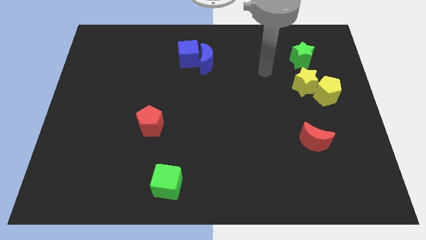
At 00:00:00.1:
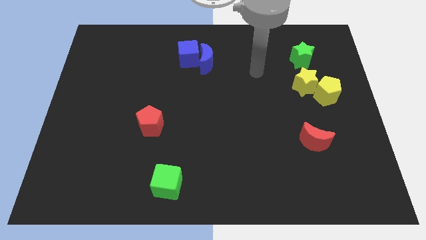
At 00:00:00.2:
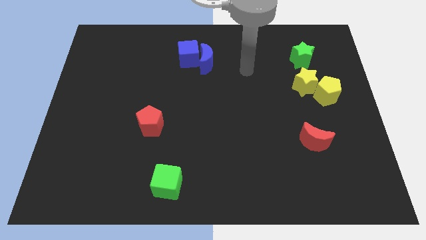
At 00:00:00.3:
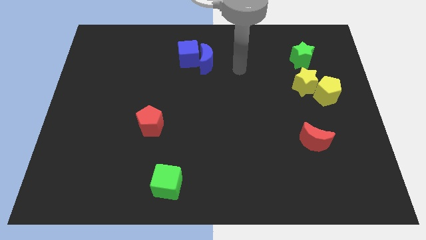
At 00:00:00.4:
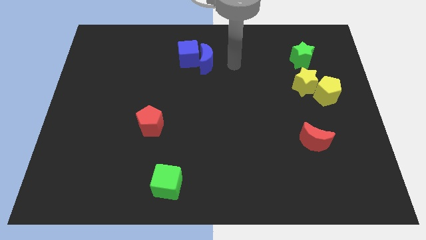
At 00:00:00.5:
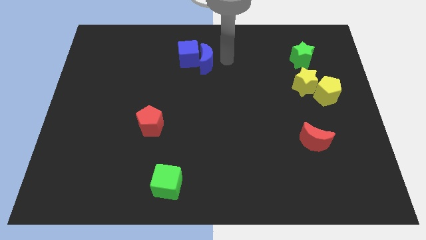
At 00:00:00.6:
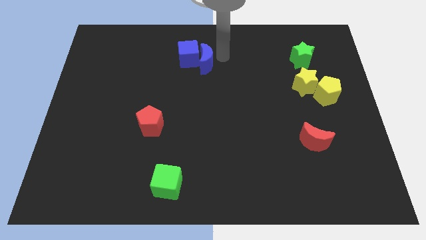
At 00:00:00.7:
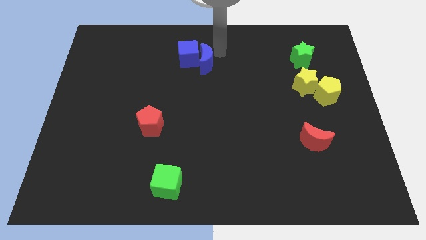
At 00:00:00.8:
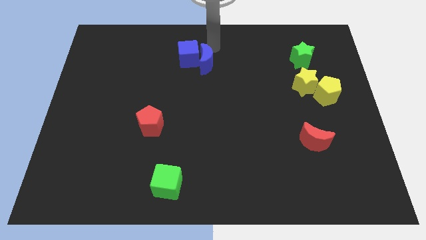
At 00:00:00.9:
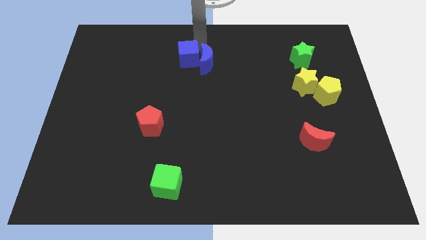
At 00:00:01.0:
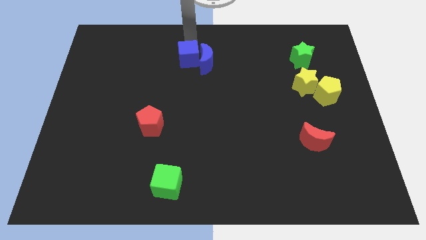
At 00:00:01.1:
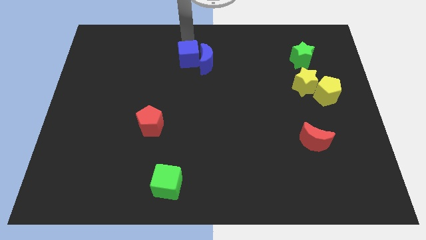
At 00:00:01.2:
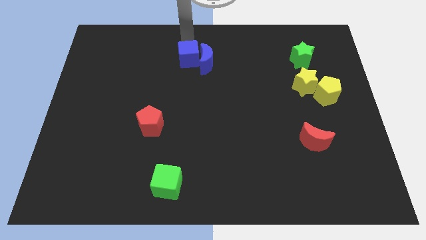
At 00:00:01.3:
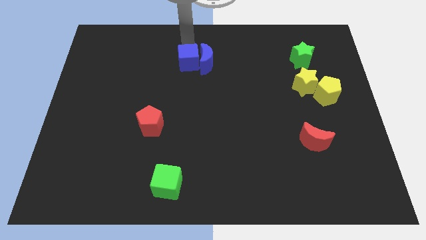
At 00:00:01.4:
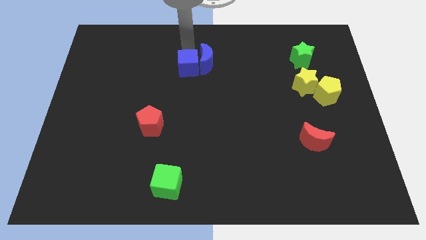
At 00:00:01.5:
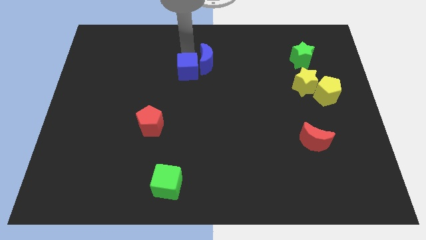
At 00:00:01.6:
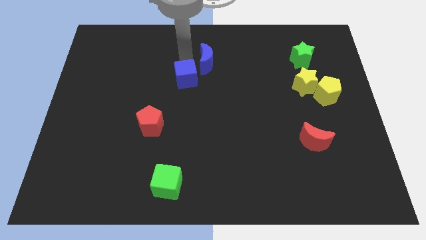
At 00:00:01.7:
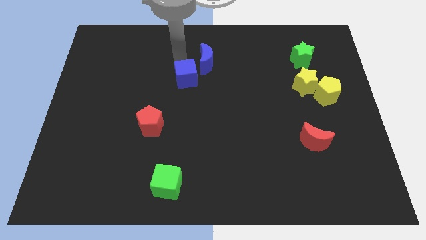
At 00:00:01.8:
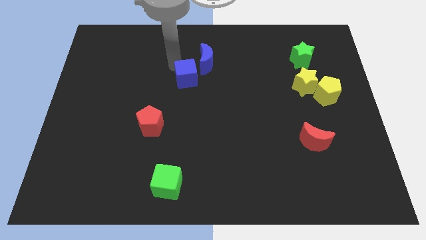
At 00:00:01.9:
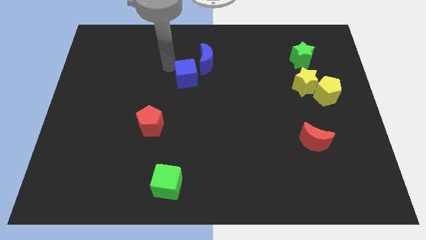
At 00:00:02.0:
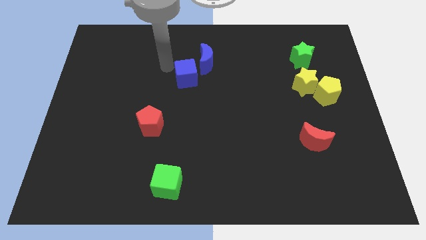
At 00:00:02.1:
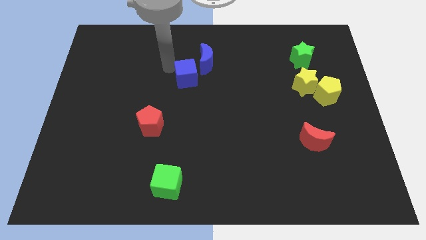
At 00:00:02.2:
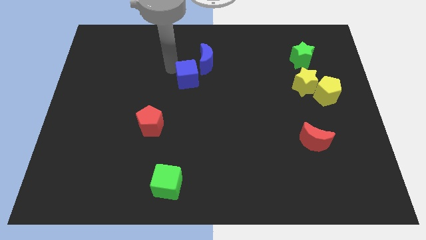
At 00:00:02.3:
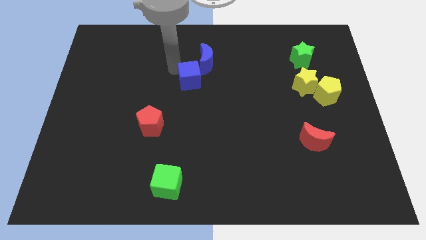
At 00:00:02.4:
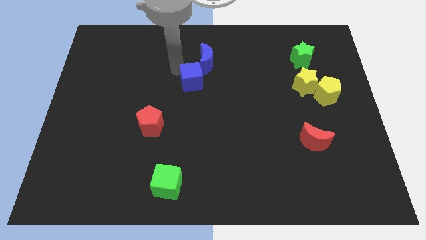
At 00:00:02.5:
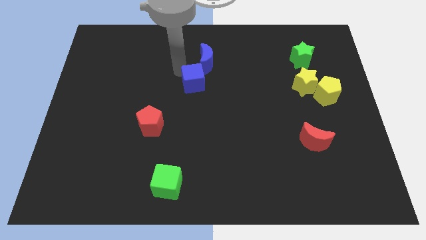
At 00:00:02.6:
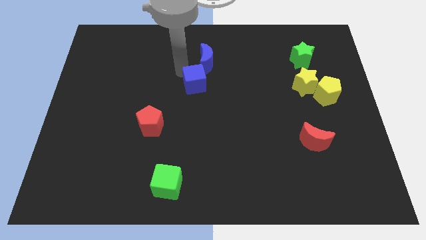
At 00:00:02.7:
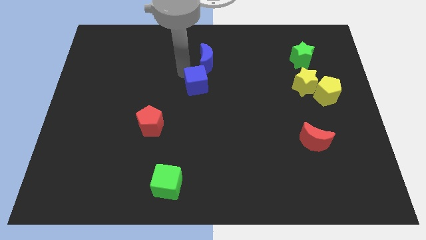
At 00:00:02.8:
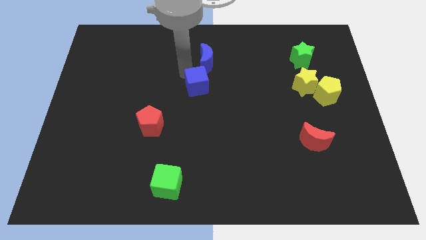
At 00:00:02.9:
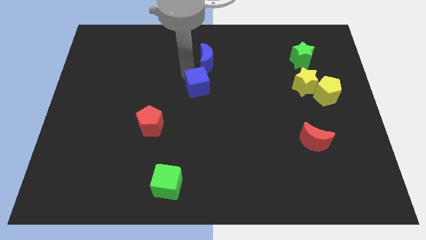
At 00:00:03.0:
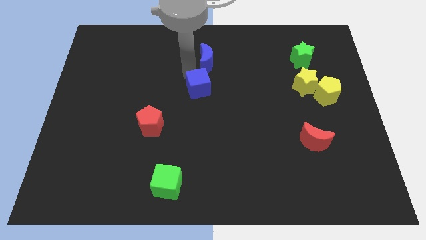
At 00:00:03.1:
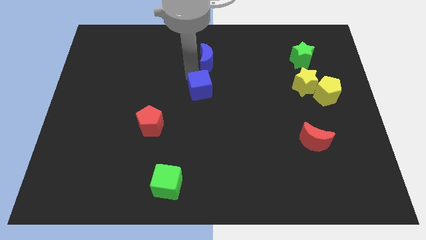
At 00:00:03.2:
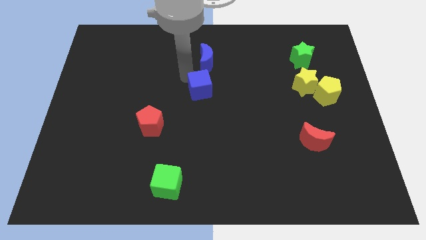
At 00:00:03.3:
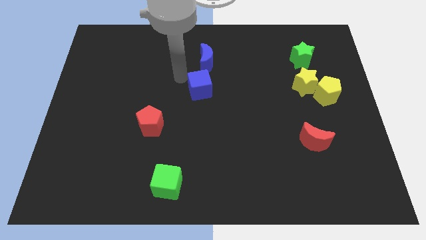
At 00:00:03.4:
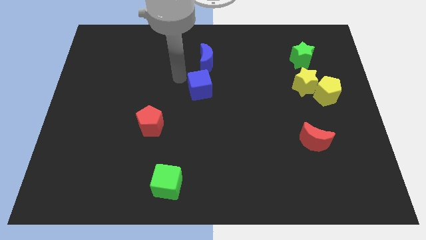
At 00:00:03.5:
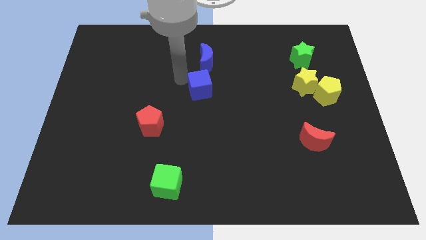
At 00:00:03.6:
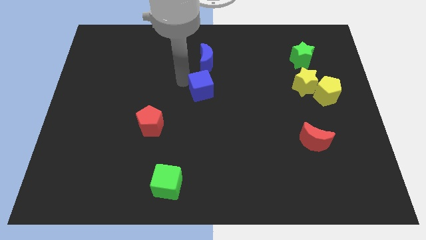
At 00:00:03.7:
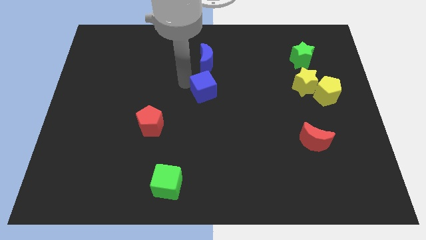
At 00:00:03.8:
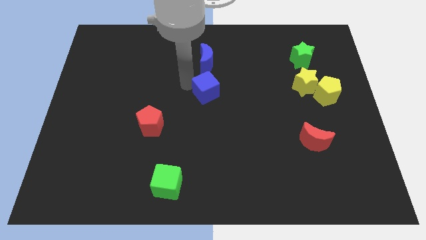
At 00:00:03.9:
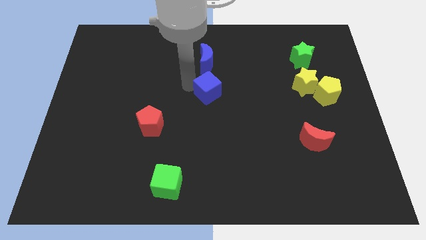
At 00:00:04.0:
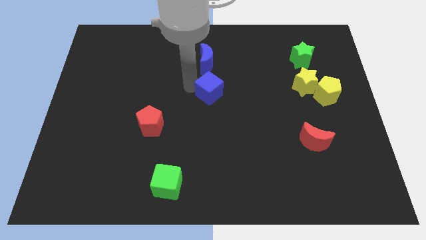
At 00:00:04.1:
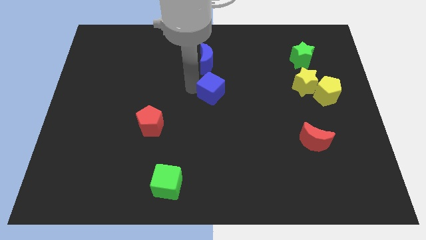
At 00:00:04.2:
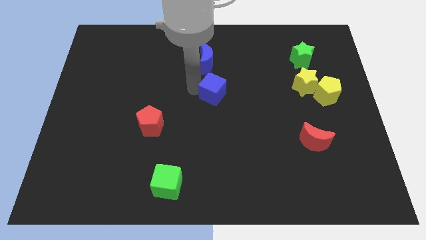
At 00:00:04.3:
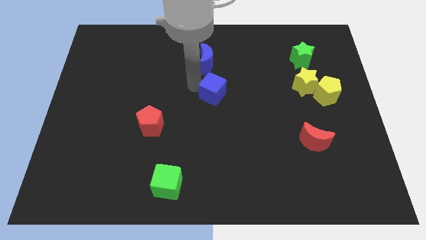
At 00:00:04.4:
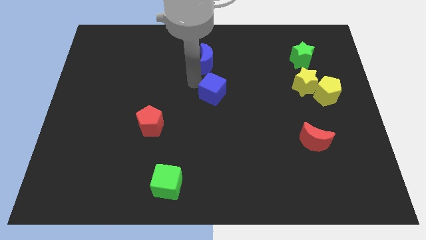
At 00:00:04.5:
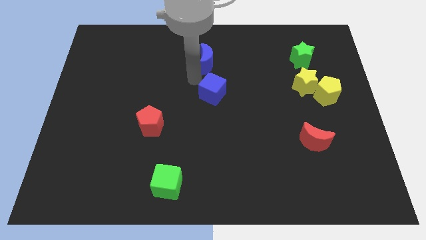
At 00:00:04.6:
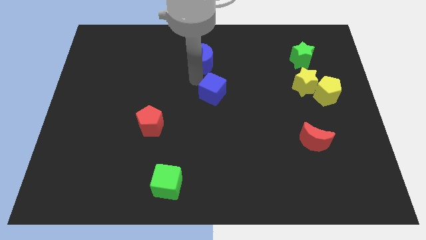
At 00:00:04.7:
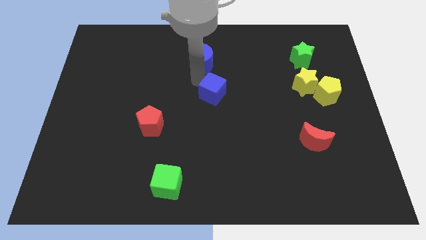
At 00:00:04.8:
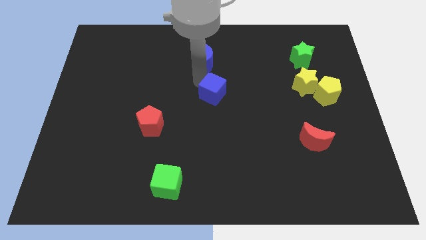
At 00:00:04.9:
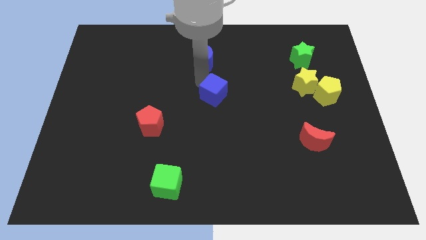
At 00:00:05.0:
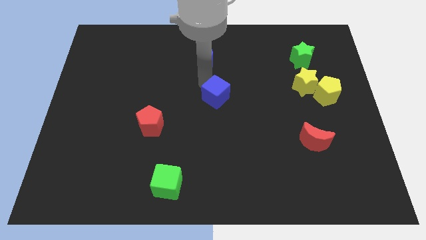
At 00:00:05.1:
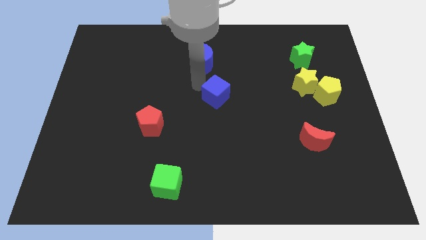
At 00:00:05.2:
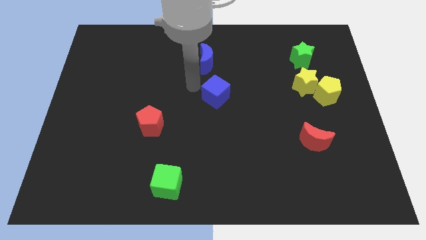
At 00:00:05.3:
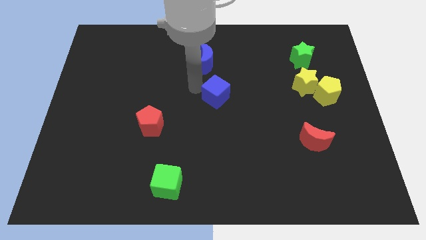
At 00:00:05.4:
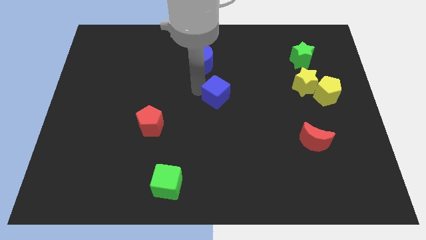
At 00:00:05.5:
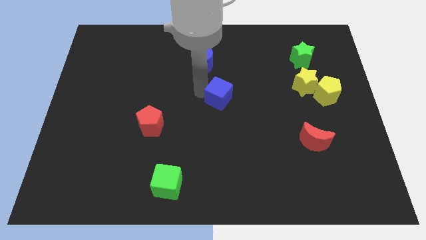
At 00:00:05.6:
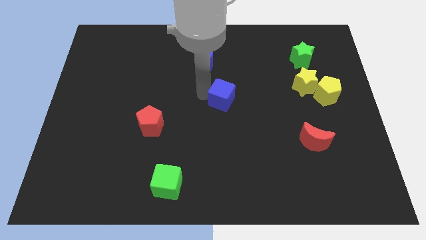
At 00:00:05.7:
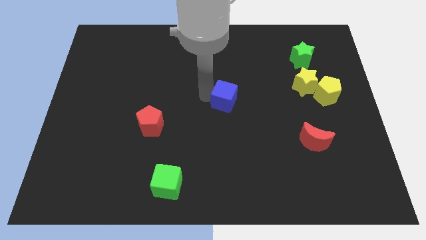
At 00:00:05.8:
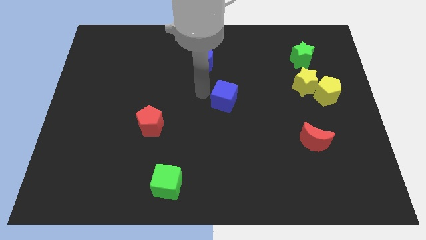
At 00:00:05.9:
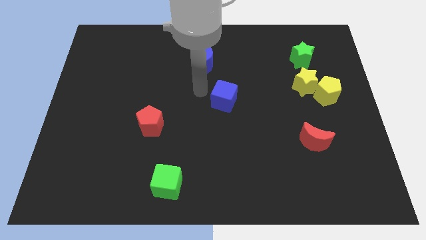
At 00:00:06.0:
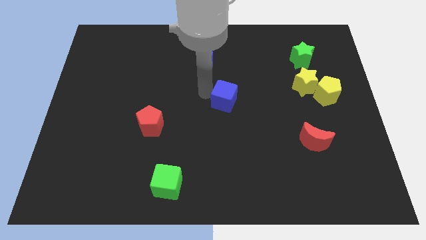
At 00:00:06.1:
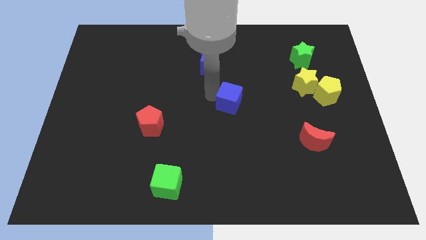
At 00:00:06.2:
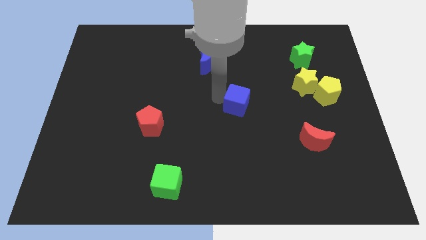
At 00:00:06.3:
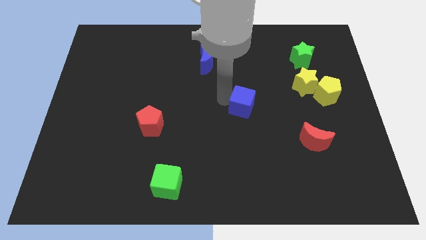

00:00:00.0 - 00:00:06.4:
slide the blue cube downwards and to the right diagonally

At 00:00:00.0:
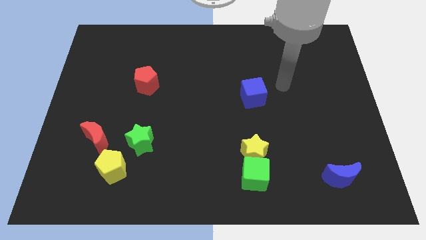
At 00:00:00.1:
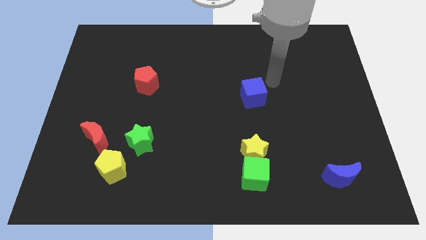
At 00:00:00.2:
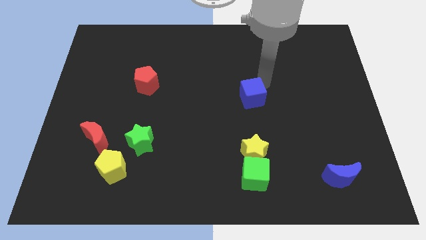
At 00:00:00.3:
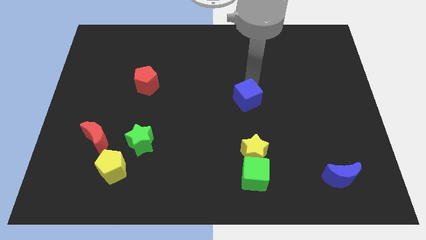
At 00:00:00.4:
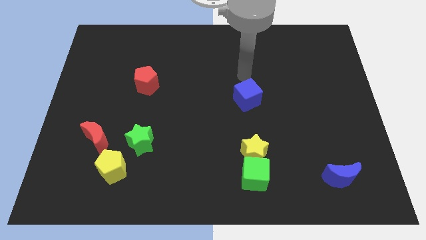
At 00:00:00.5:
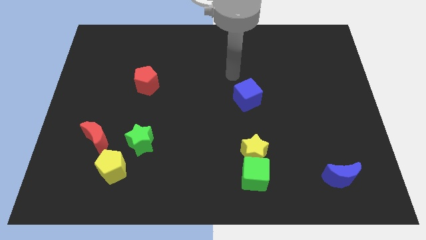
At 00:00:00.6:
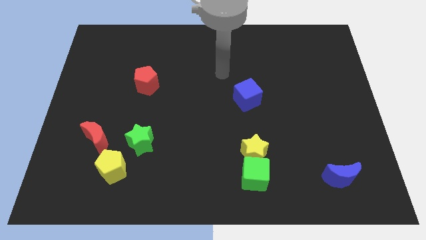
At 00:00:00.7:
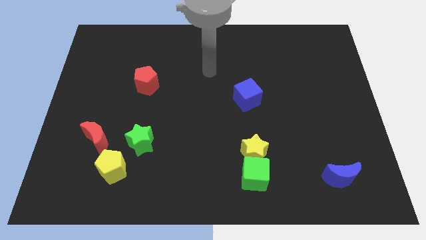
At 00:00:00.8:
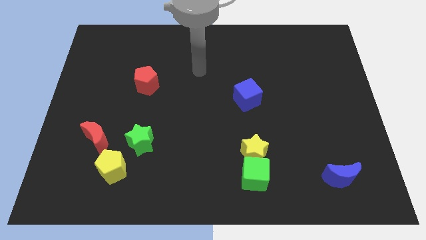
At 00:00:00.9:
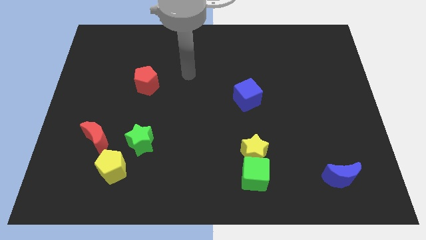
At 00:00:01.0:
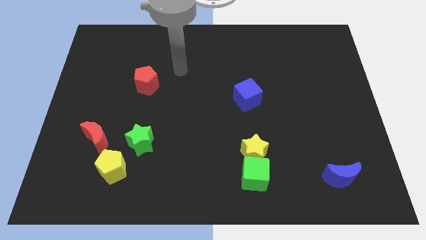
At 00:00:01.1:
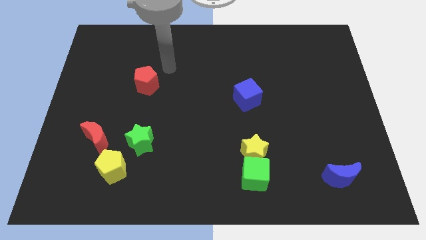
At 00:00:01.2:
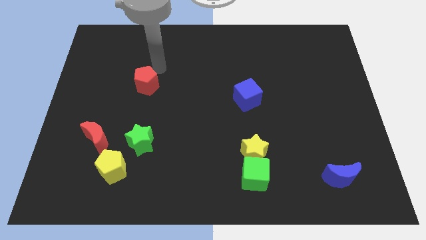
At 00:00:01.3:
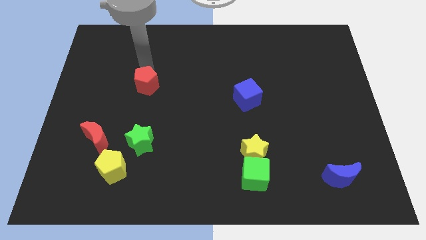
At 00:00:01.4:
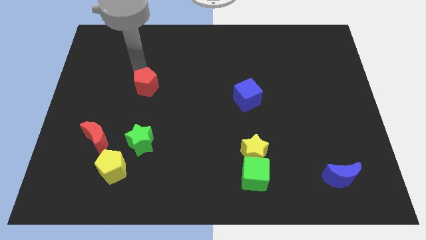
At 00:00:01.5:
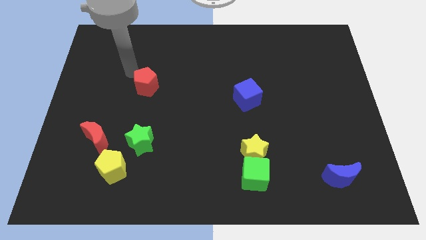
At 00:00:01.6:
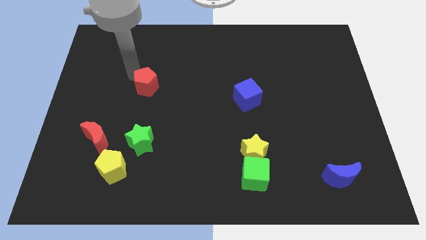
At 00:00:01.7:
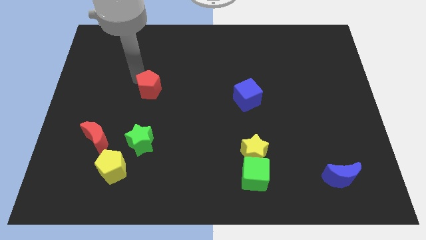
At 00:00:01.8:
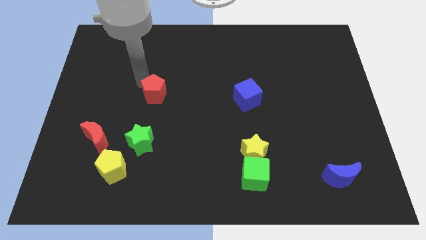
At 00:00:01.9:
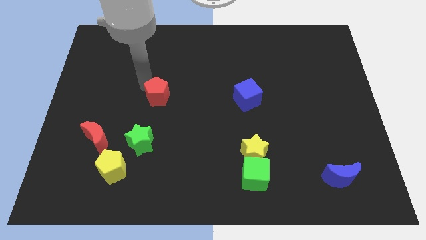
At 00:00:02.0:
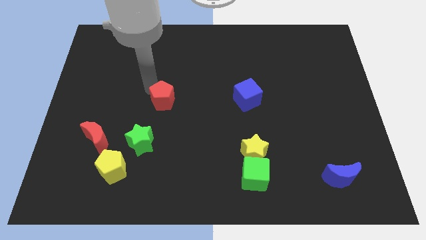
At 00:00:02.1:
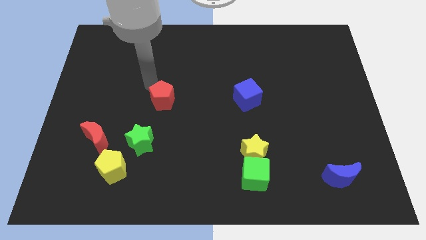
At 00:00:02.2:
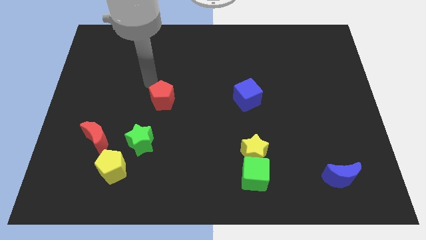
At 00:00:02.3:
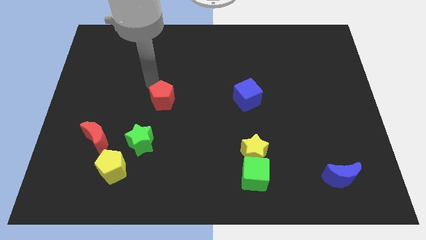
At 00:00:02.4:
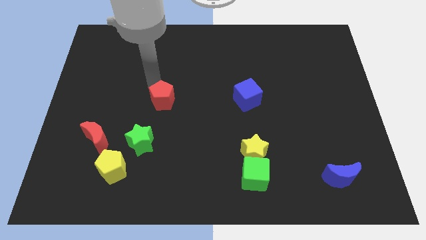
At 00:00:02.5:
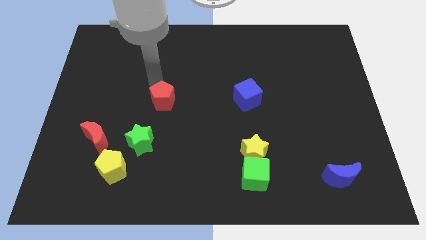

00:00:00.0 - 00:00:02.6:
push the red pentagon slightly down and then to the right
